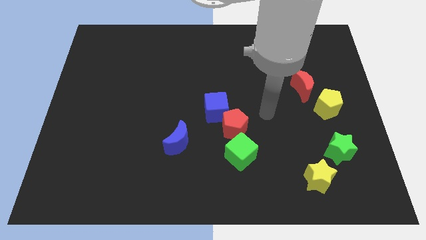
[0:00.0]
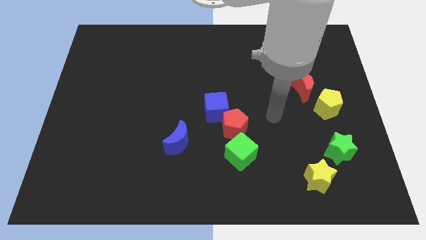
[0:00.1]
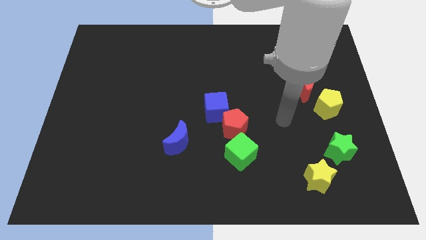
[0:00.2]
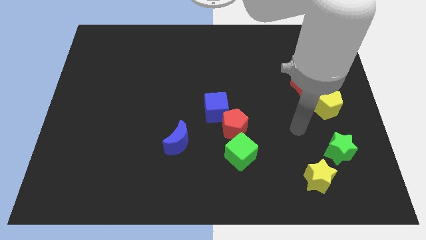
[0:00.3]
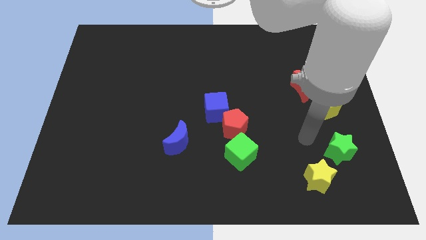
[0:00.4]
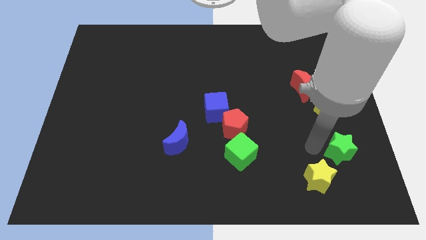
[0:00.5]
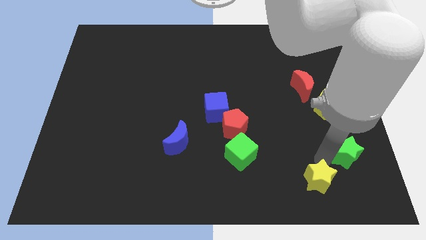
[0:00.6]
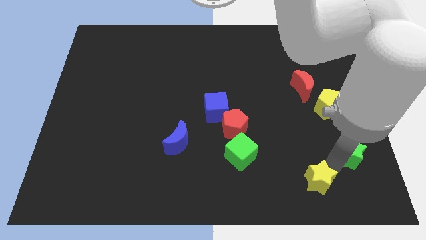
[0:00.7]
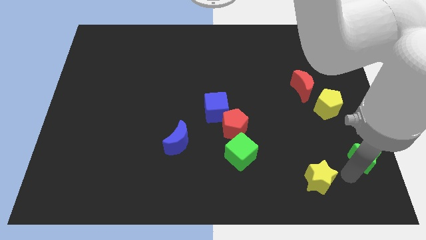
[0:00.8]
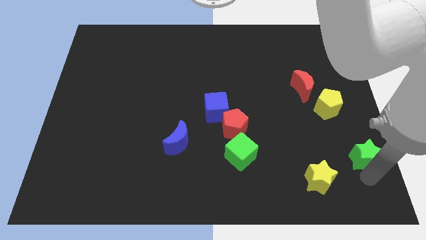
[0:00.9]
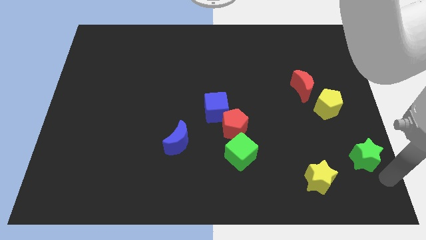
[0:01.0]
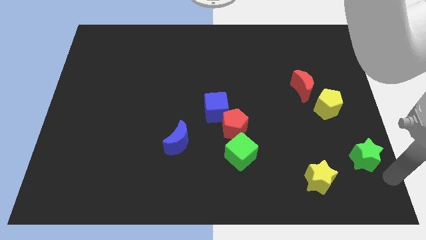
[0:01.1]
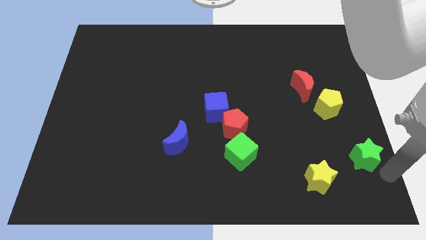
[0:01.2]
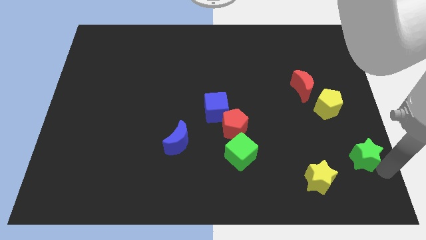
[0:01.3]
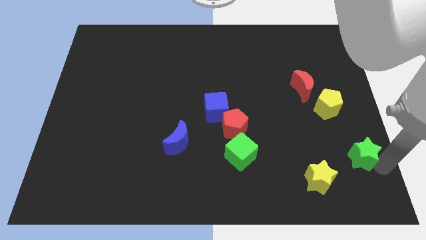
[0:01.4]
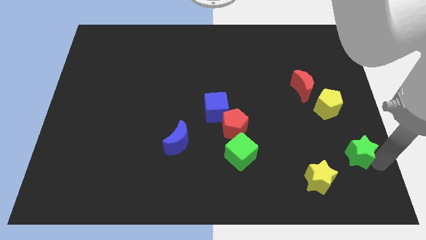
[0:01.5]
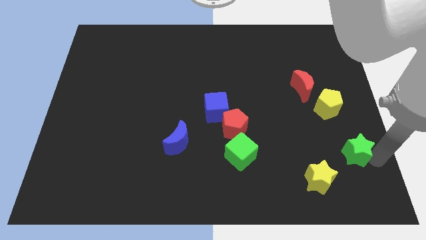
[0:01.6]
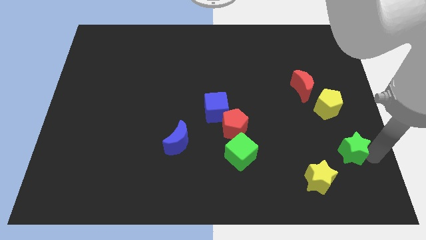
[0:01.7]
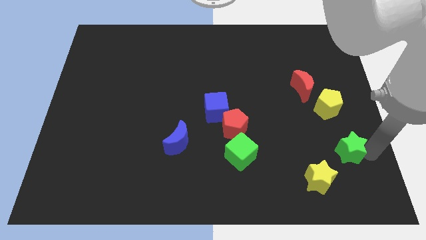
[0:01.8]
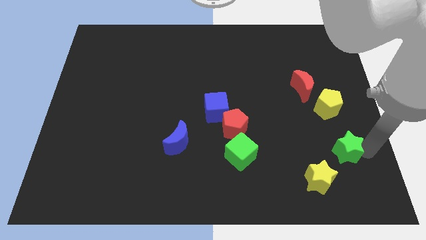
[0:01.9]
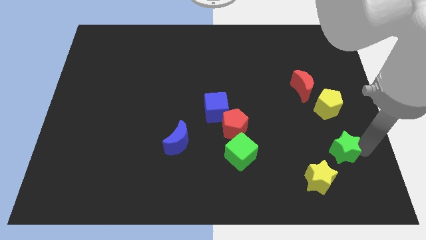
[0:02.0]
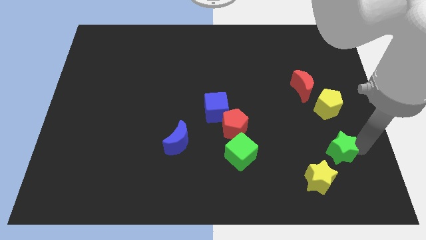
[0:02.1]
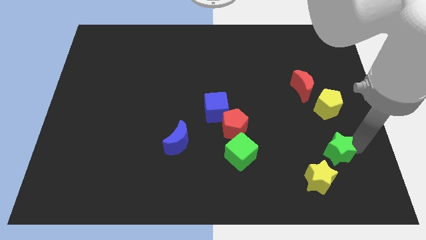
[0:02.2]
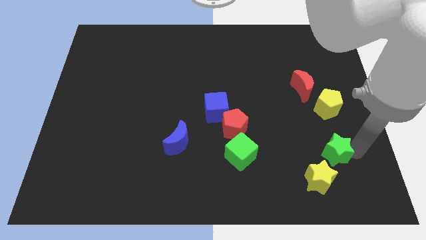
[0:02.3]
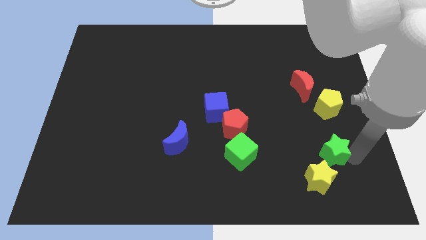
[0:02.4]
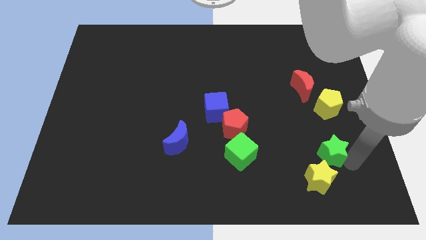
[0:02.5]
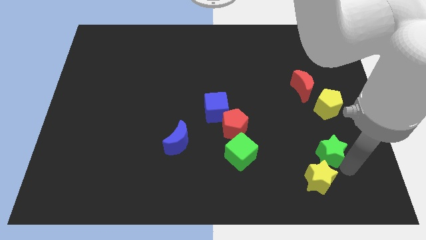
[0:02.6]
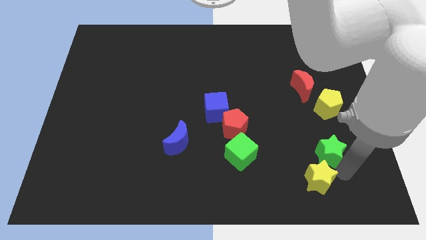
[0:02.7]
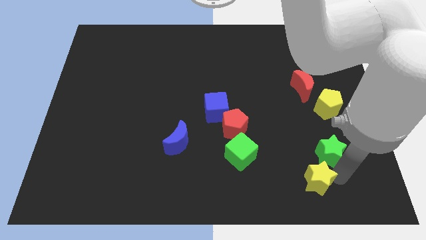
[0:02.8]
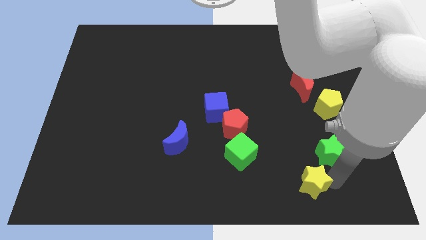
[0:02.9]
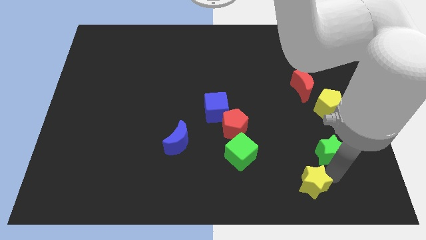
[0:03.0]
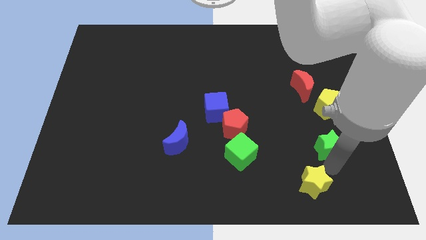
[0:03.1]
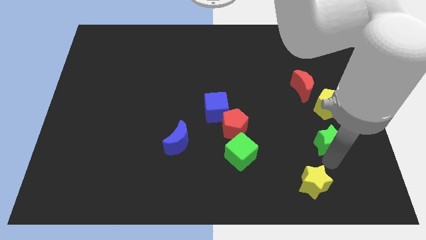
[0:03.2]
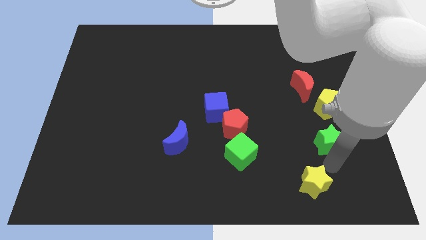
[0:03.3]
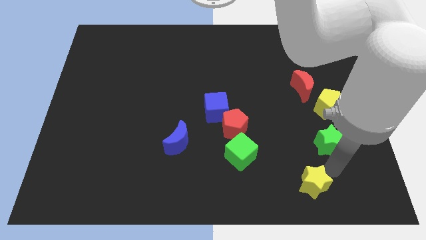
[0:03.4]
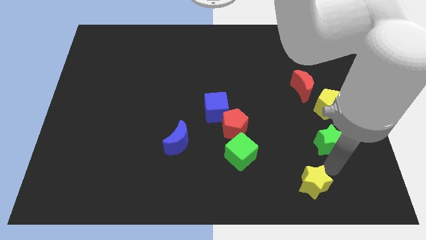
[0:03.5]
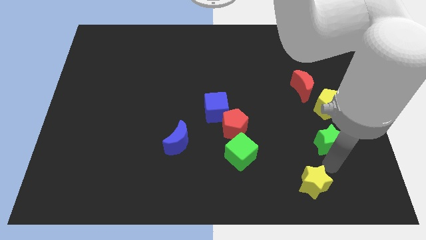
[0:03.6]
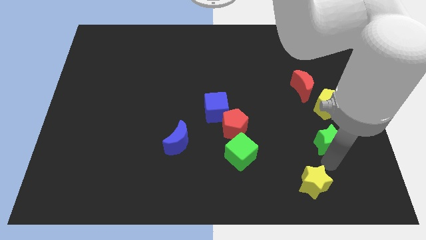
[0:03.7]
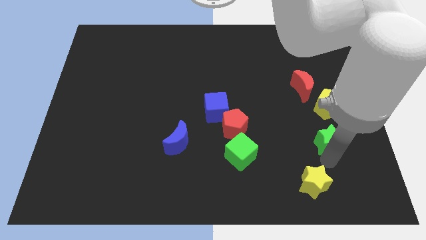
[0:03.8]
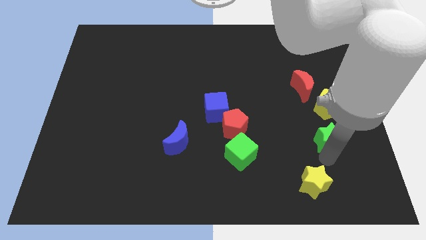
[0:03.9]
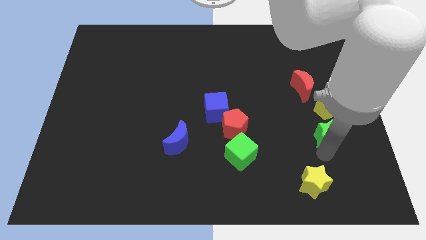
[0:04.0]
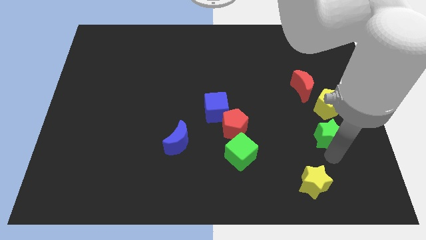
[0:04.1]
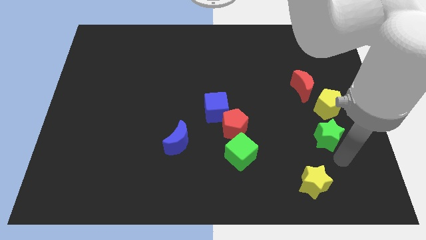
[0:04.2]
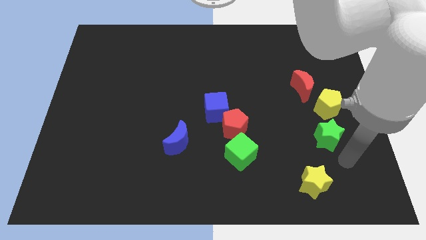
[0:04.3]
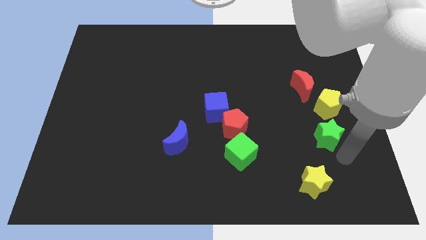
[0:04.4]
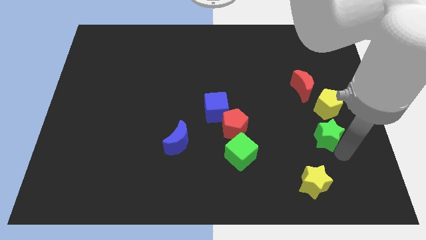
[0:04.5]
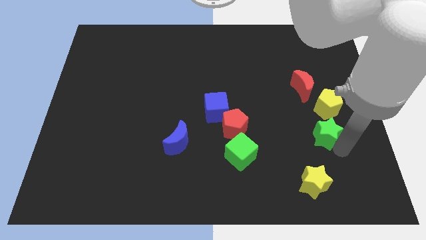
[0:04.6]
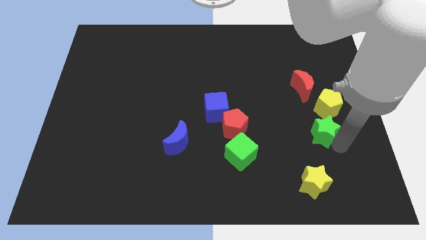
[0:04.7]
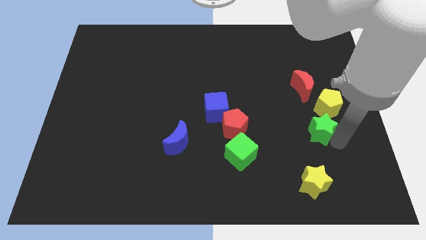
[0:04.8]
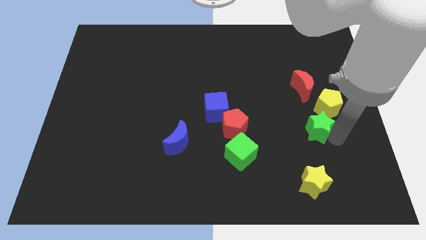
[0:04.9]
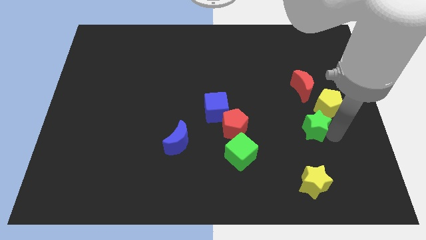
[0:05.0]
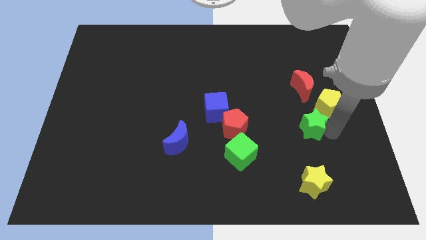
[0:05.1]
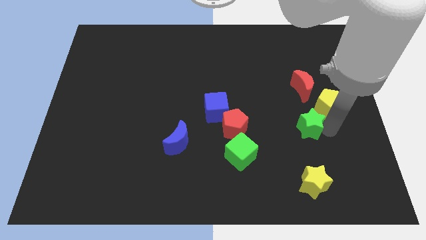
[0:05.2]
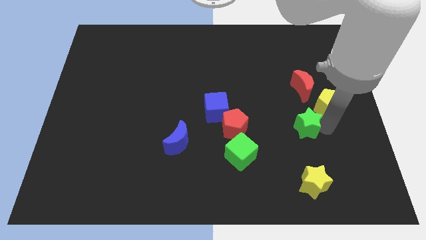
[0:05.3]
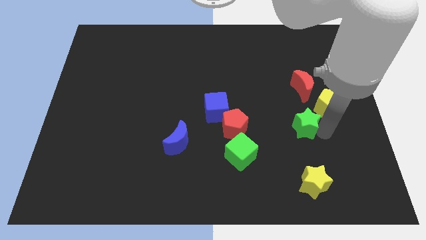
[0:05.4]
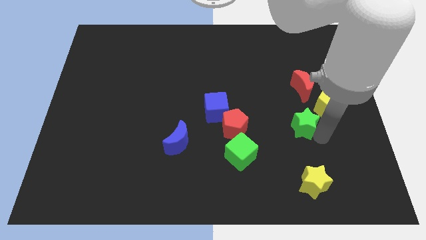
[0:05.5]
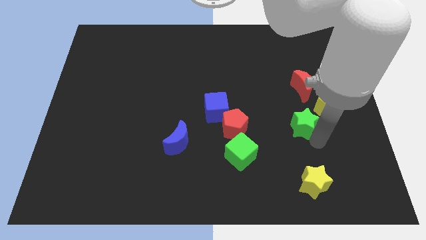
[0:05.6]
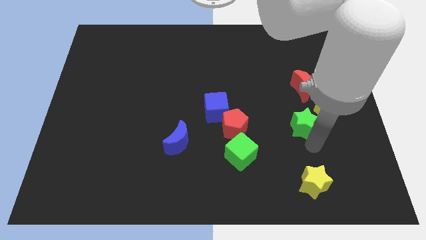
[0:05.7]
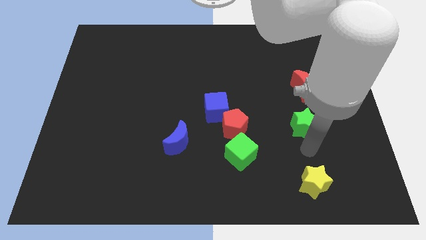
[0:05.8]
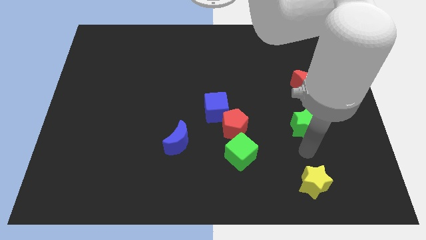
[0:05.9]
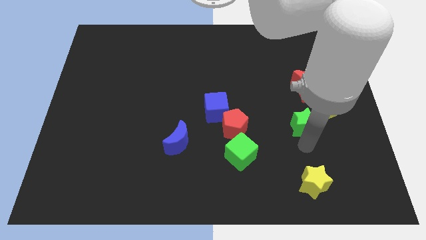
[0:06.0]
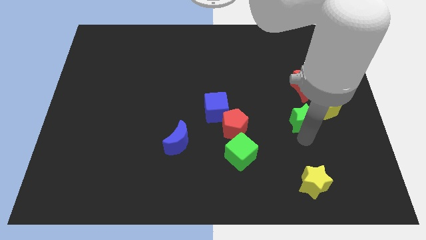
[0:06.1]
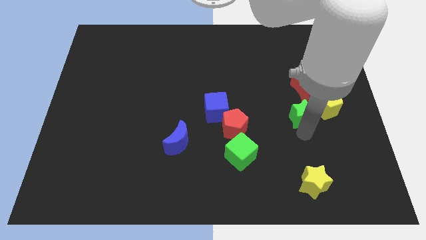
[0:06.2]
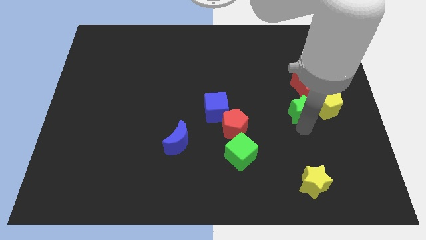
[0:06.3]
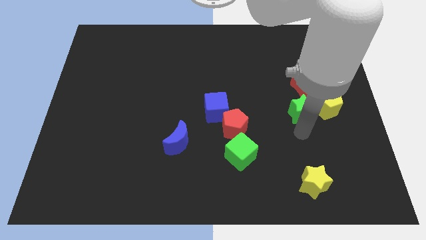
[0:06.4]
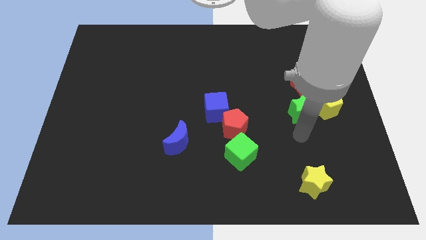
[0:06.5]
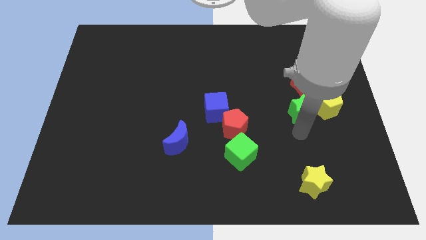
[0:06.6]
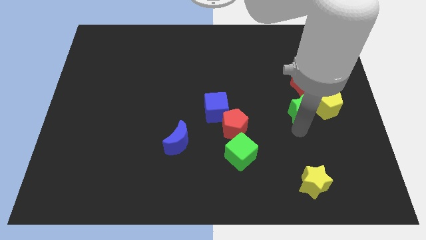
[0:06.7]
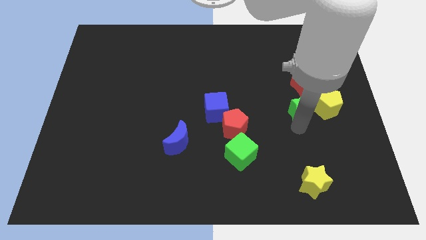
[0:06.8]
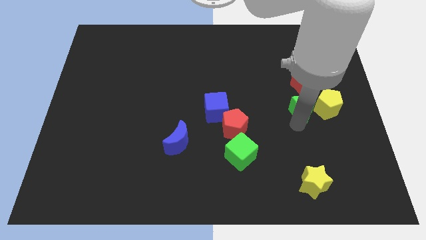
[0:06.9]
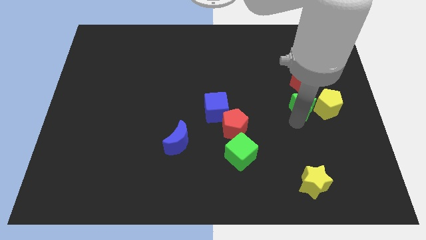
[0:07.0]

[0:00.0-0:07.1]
put the green star next to the red moon
